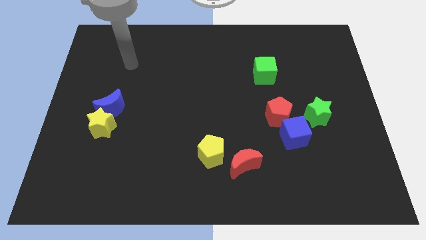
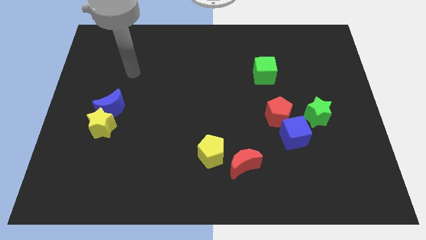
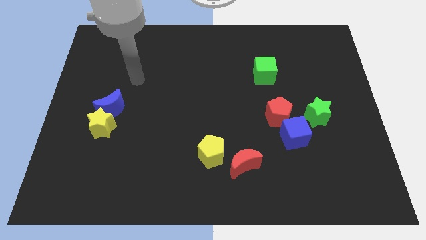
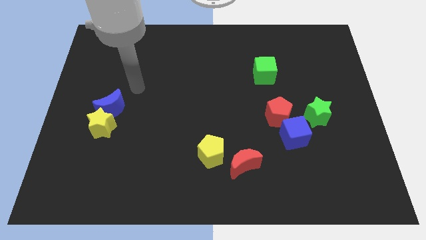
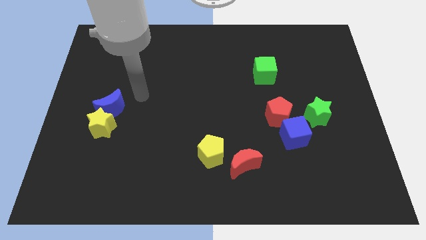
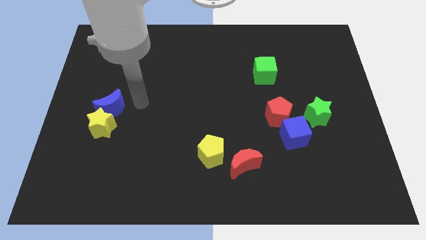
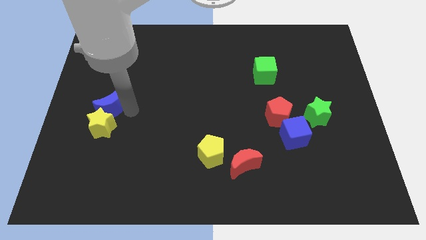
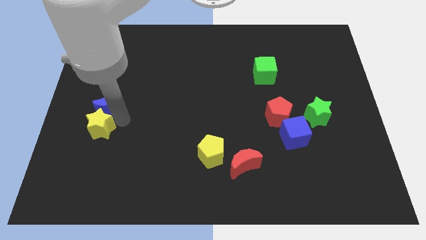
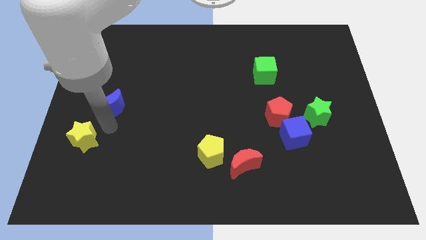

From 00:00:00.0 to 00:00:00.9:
pull the blue moon apart from the yellow star

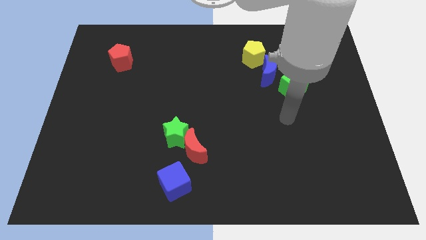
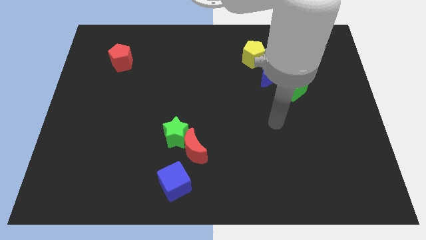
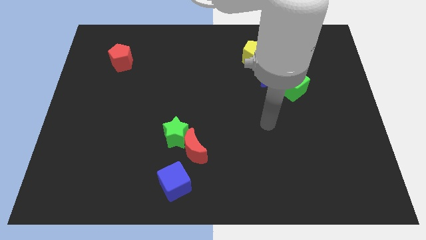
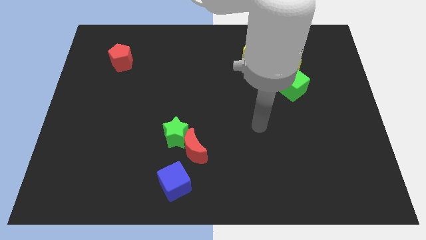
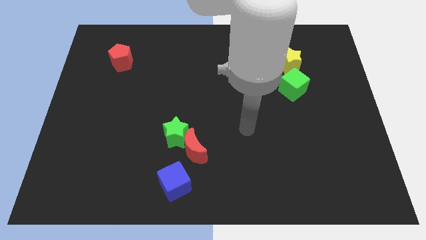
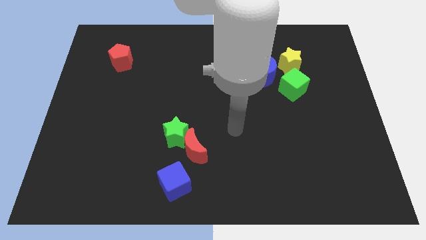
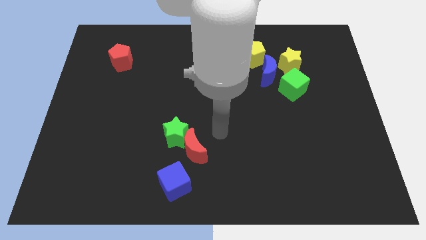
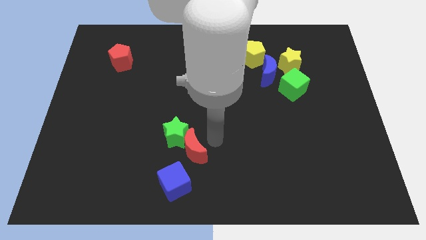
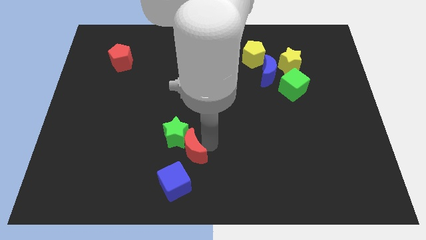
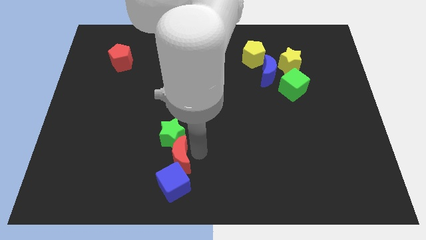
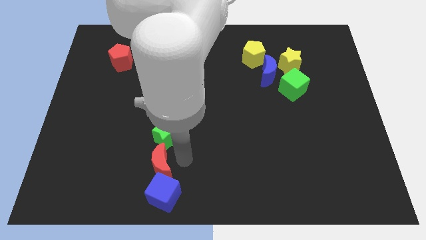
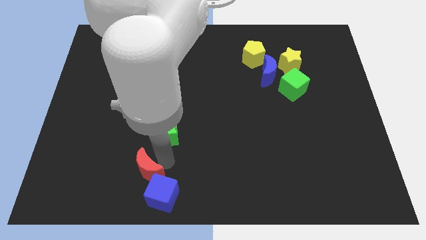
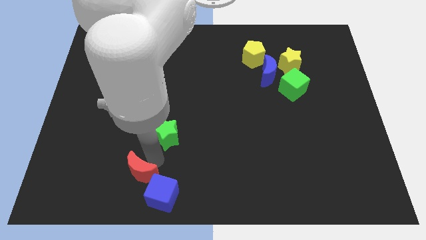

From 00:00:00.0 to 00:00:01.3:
pull the green star apart from the red moon

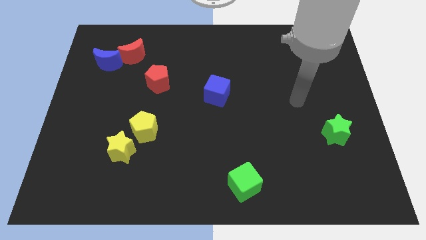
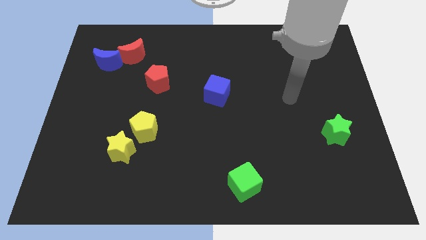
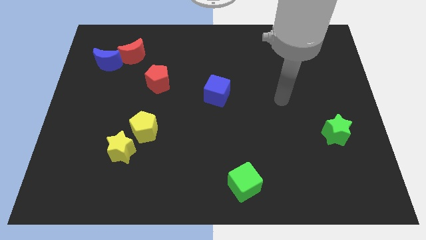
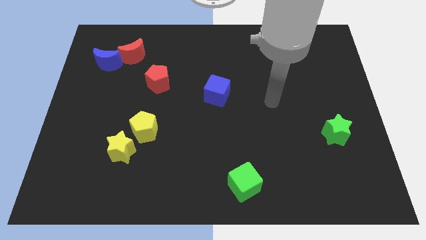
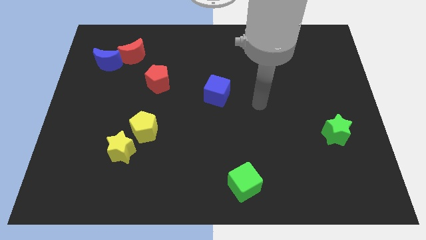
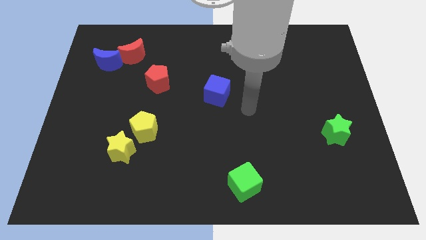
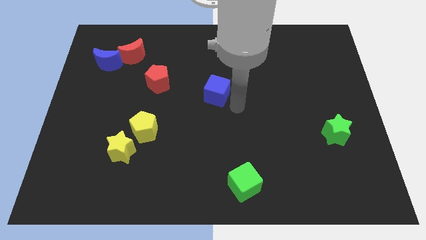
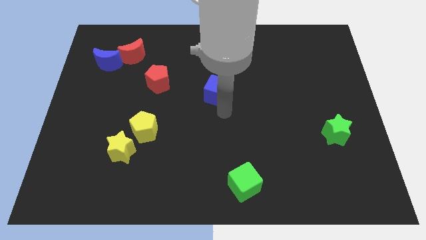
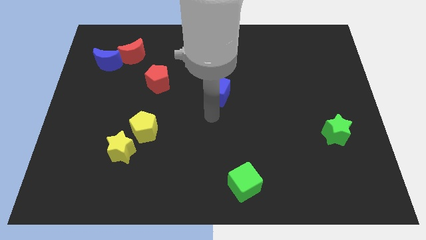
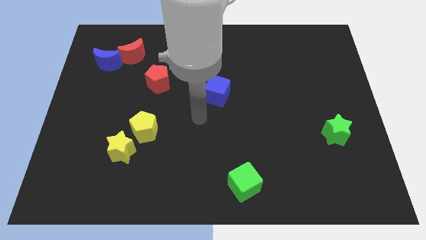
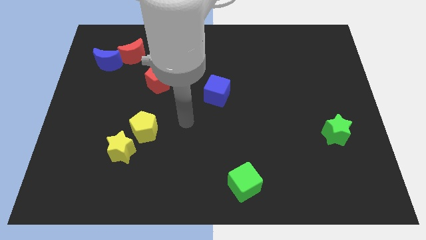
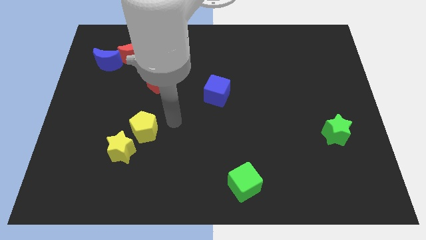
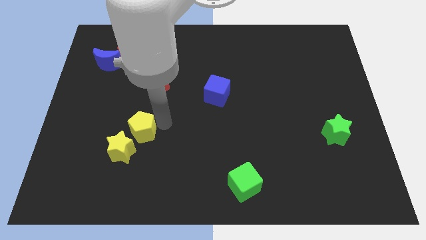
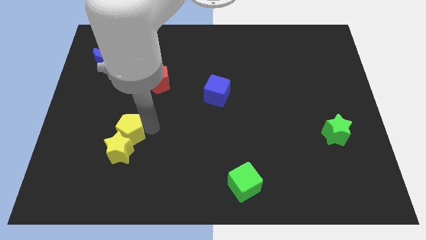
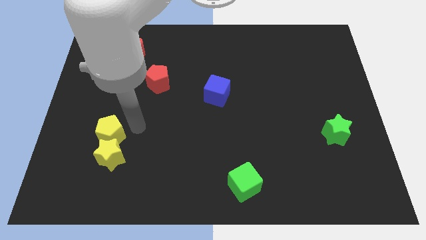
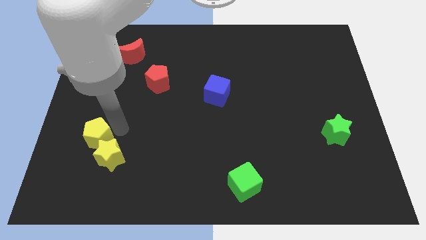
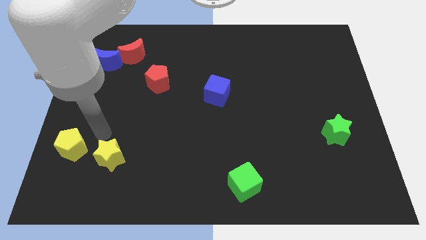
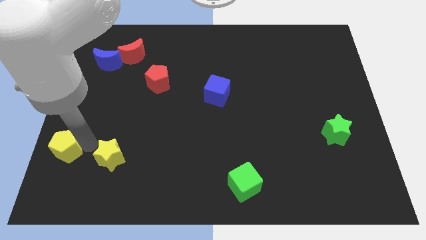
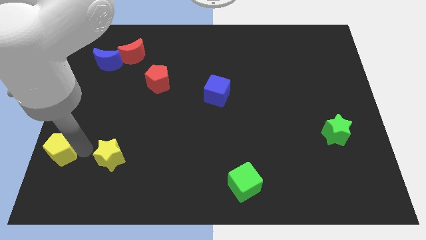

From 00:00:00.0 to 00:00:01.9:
pull the yellow star apart from the yellow pentagon

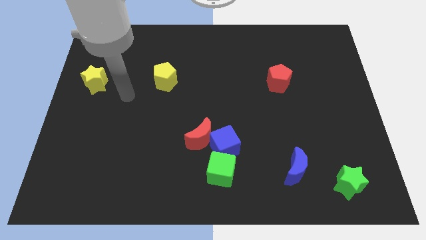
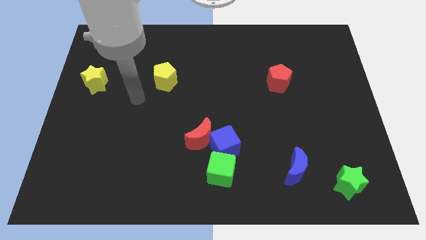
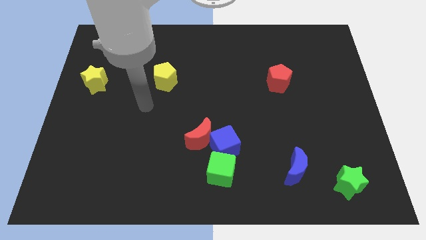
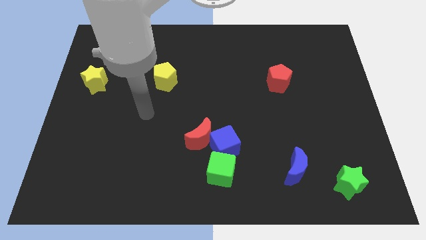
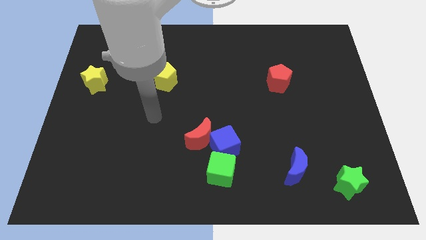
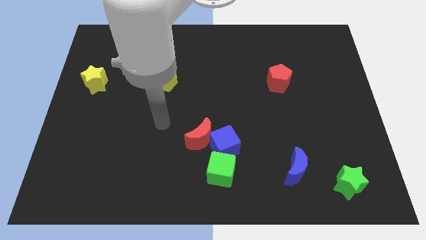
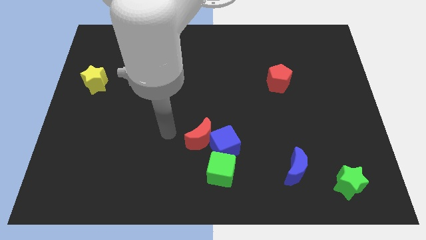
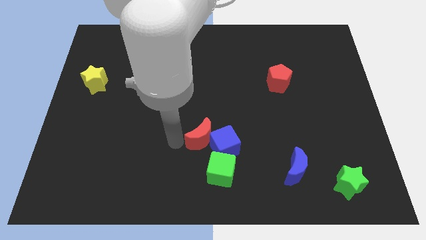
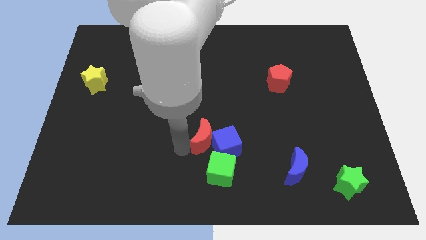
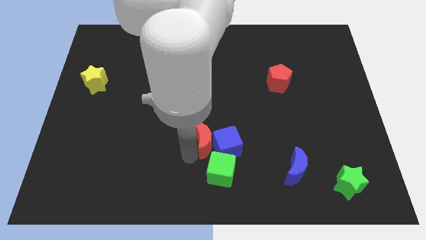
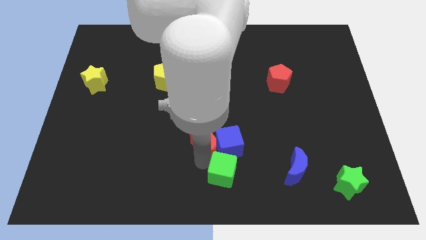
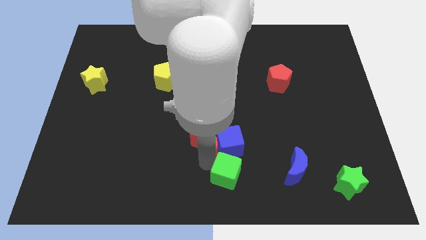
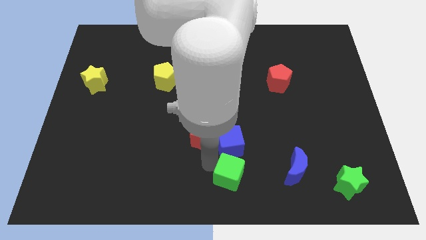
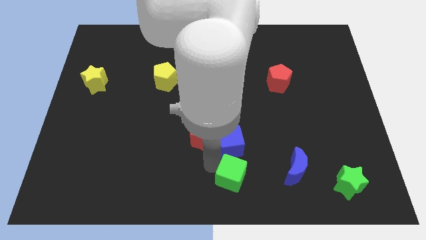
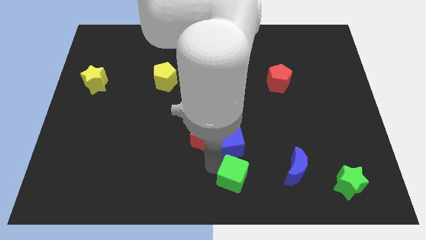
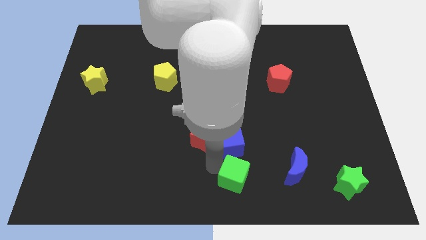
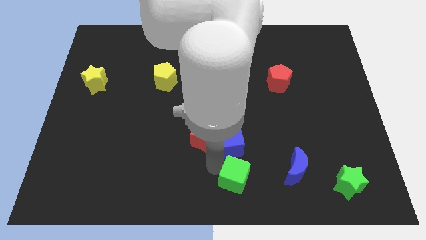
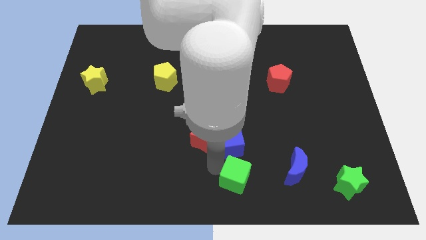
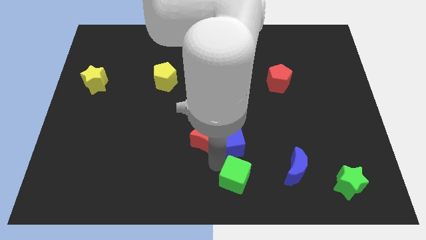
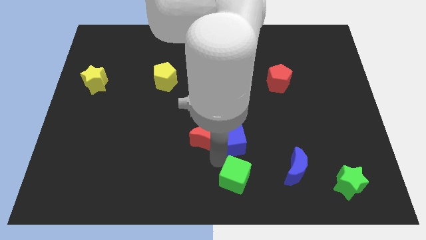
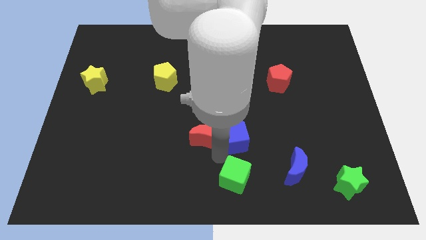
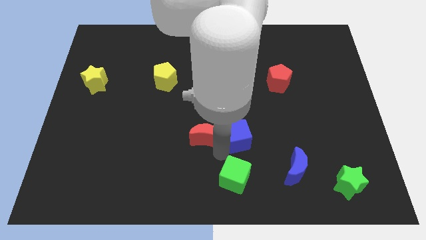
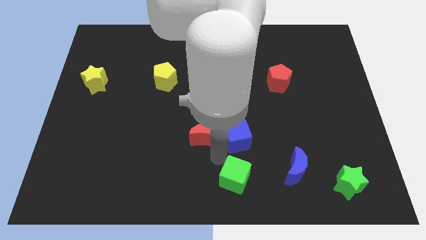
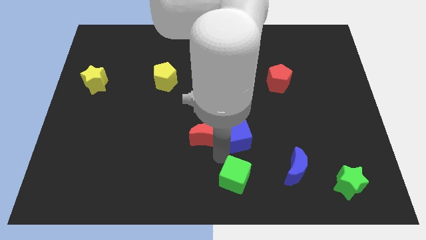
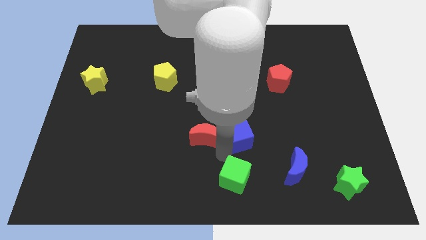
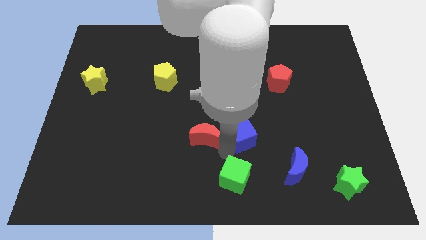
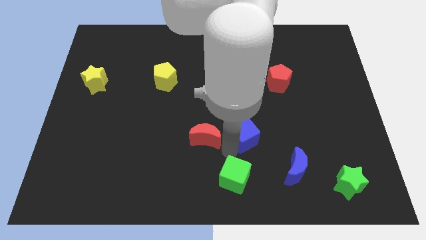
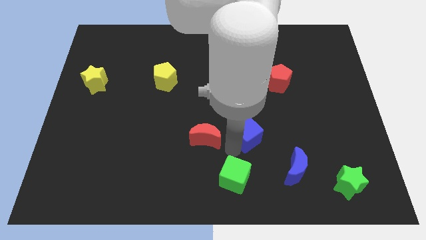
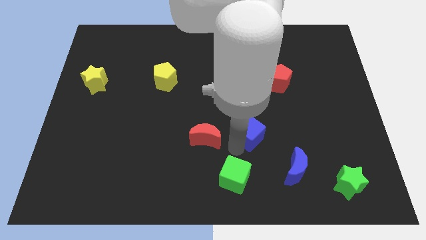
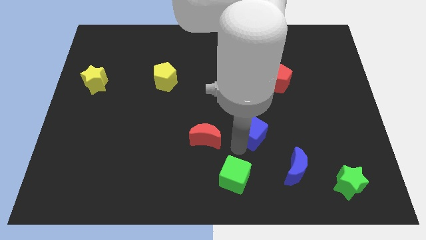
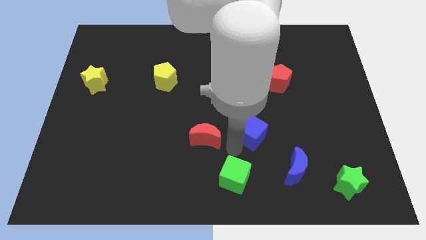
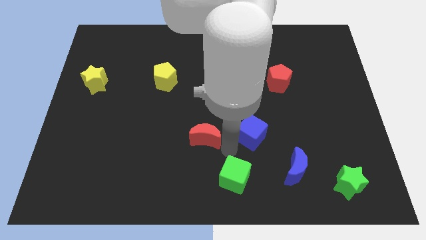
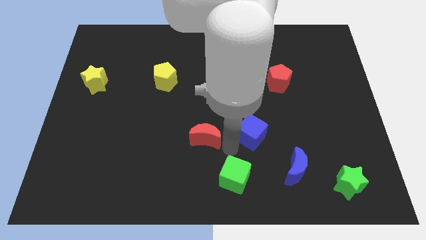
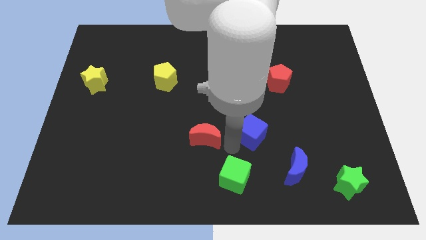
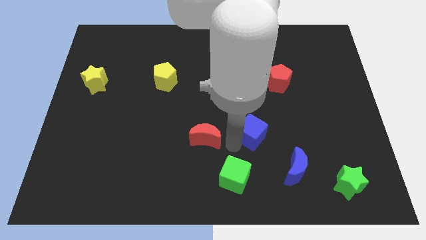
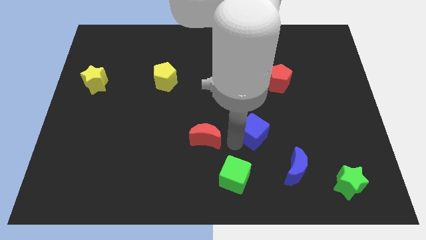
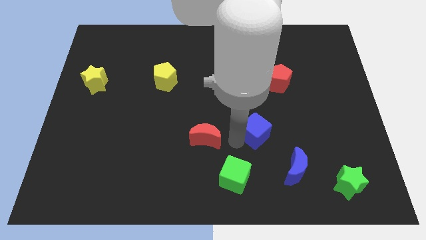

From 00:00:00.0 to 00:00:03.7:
pull the blue cube apart from the red moon and green cube

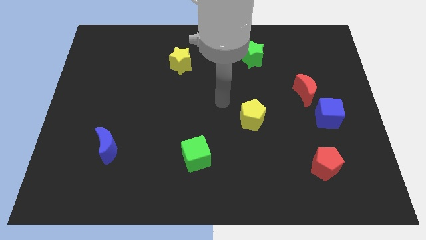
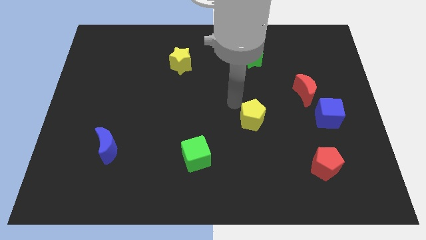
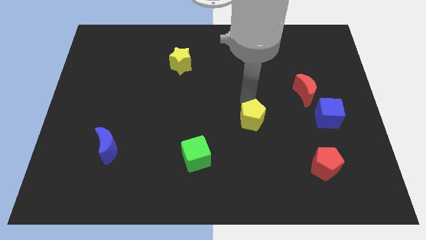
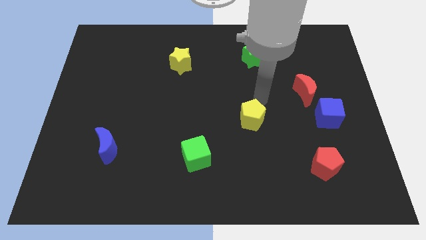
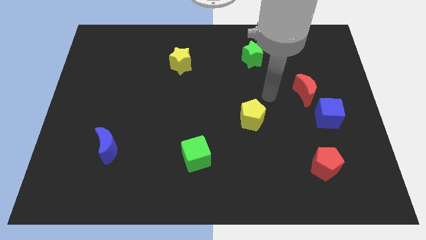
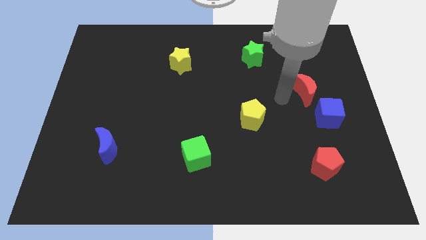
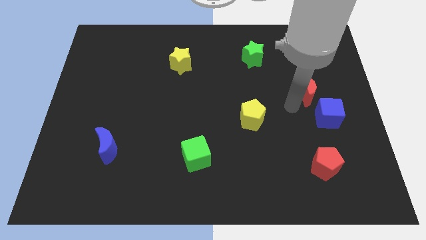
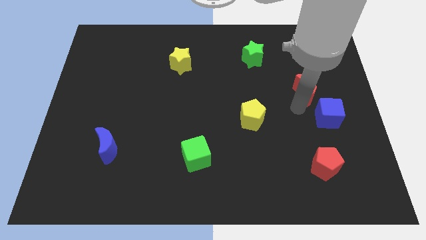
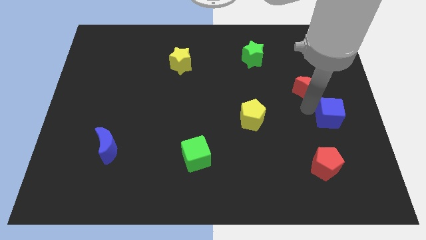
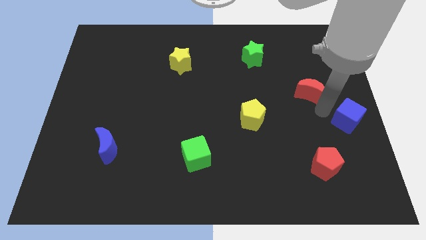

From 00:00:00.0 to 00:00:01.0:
separate the red moon from the blue cube

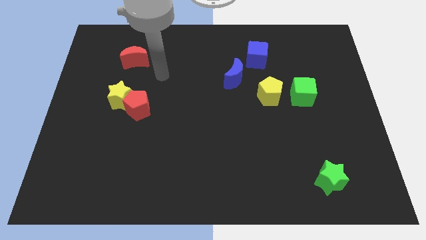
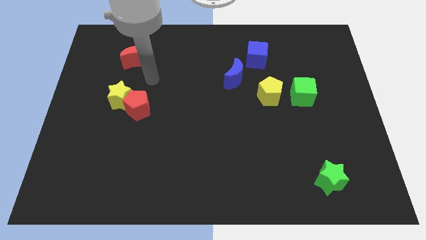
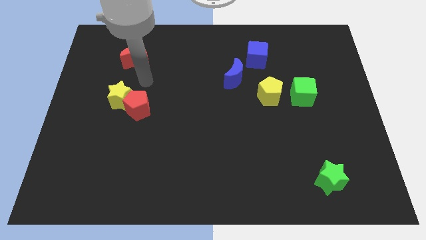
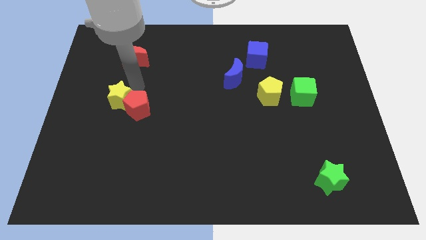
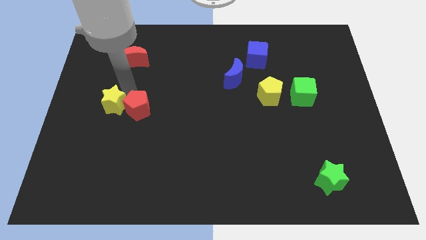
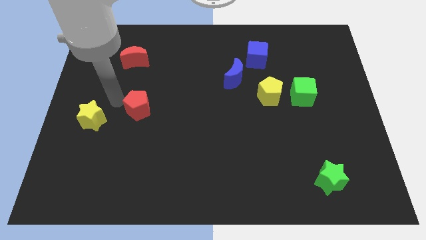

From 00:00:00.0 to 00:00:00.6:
pull the red pentagon apart from the yellow star
